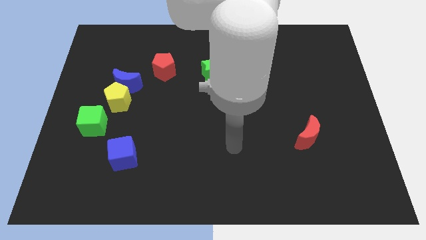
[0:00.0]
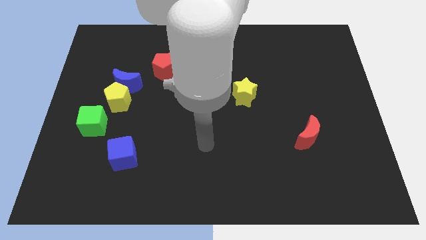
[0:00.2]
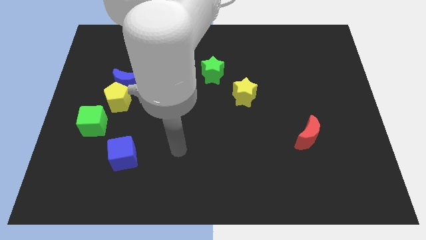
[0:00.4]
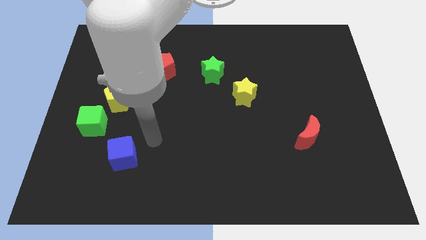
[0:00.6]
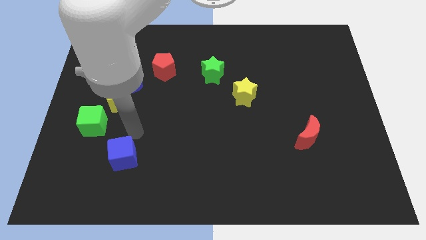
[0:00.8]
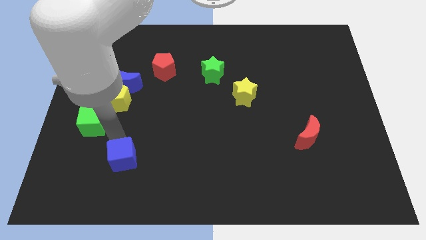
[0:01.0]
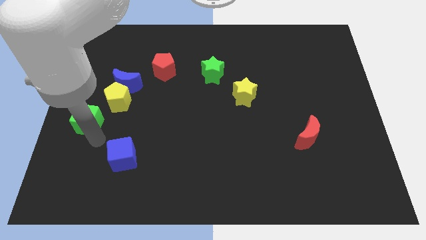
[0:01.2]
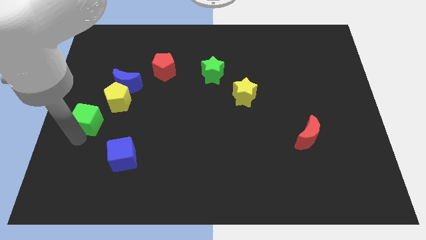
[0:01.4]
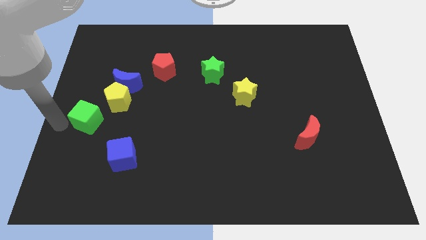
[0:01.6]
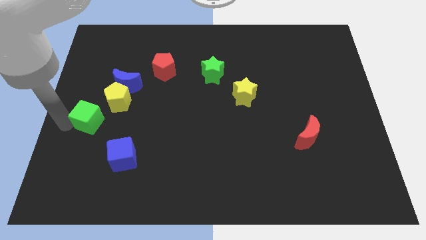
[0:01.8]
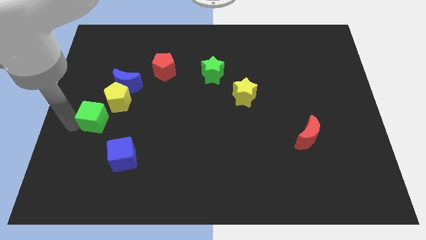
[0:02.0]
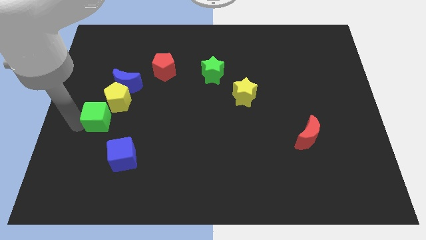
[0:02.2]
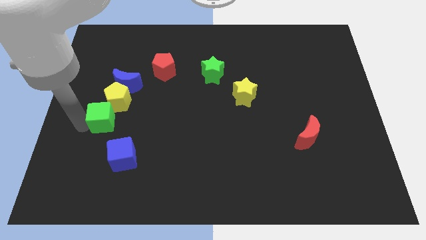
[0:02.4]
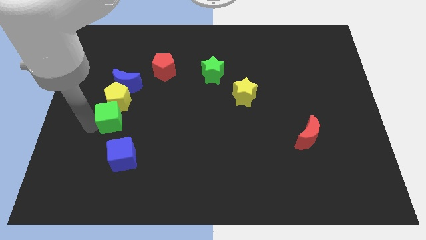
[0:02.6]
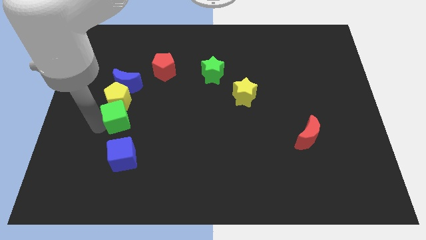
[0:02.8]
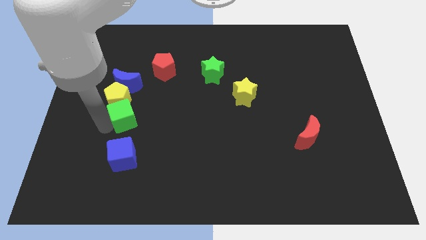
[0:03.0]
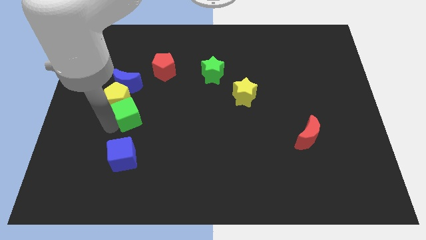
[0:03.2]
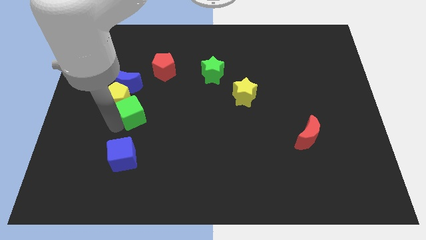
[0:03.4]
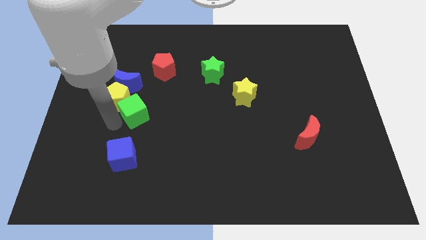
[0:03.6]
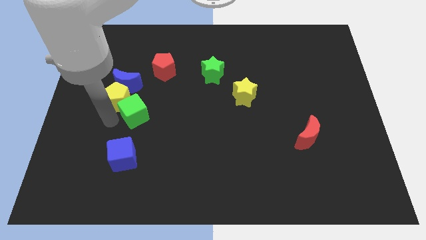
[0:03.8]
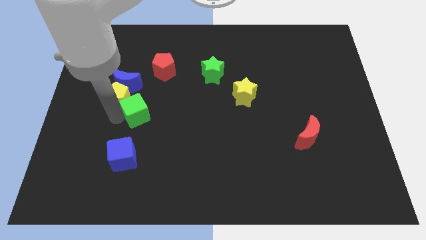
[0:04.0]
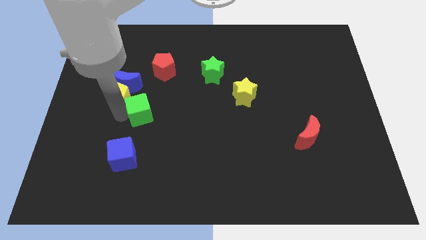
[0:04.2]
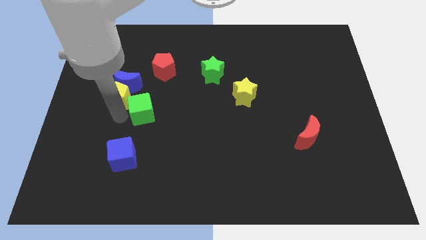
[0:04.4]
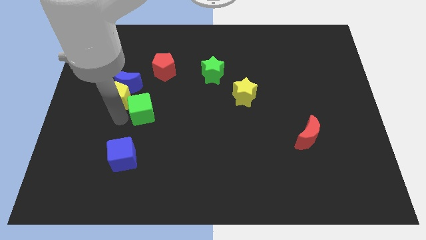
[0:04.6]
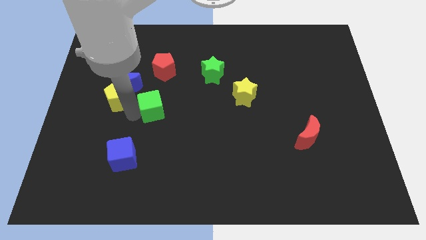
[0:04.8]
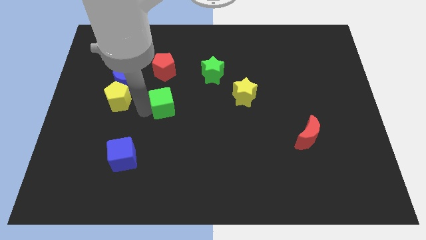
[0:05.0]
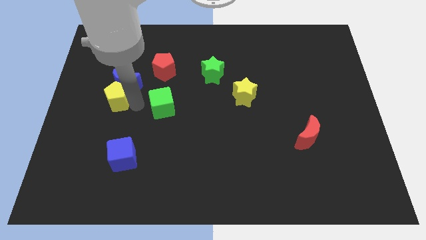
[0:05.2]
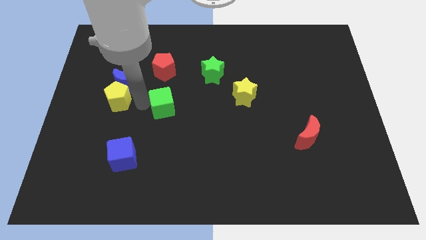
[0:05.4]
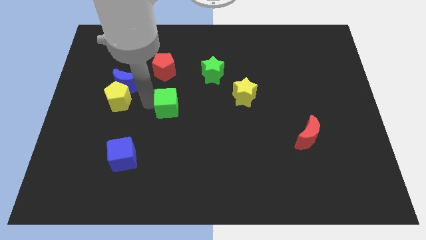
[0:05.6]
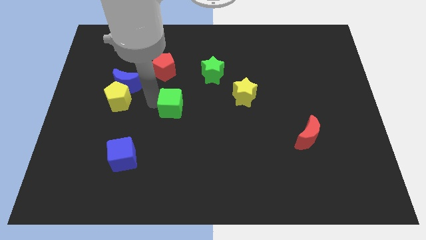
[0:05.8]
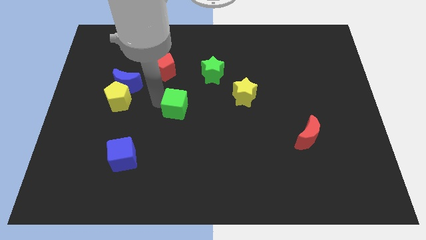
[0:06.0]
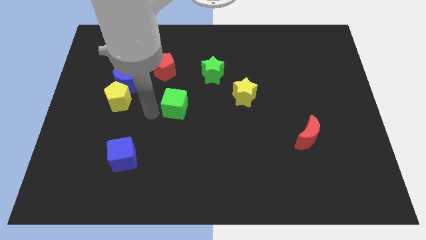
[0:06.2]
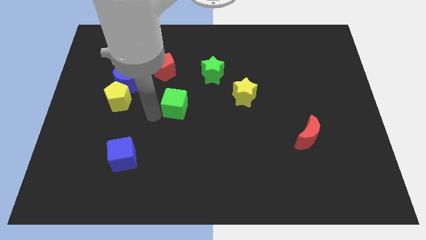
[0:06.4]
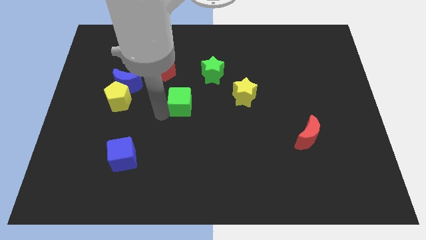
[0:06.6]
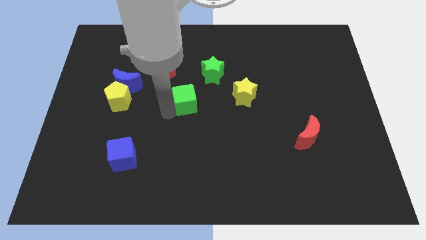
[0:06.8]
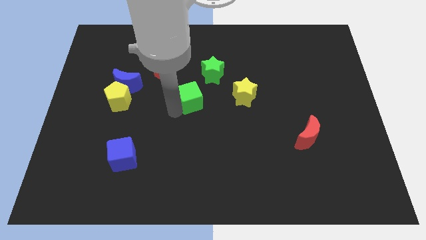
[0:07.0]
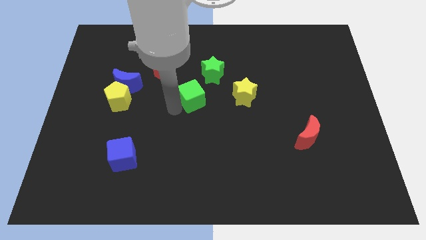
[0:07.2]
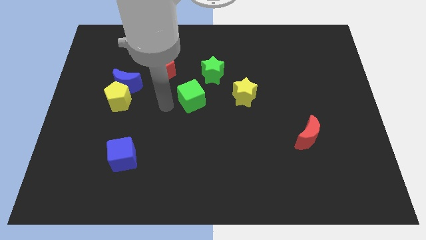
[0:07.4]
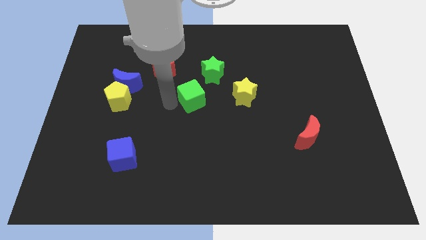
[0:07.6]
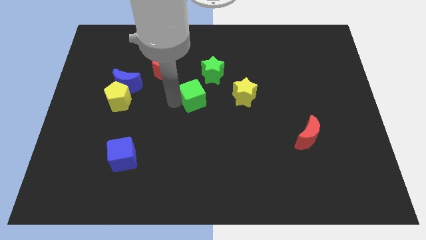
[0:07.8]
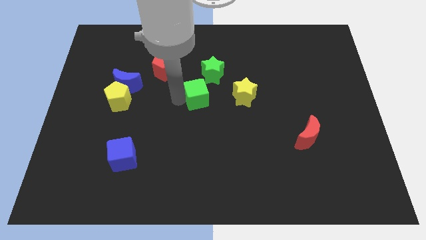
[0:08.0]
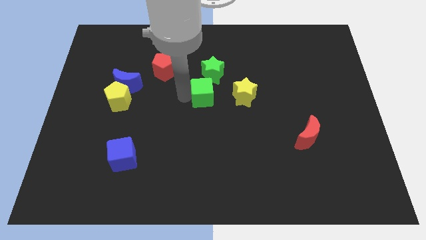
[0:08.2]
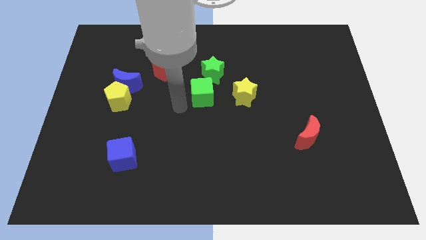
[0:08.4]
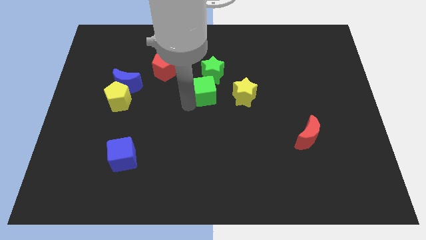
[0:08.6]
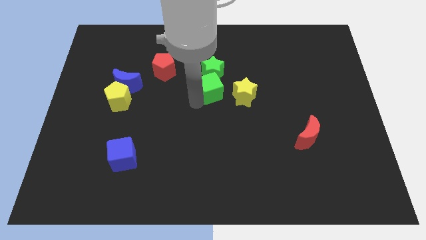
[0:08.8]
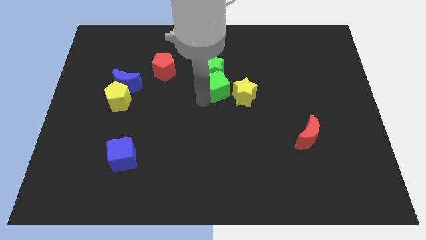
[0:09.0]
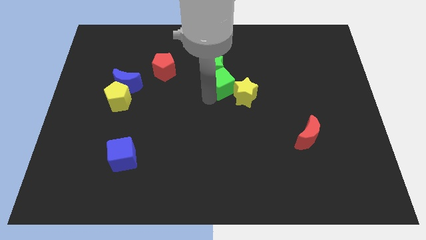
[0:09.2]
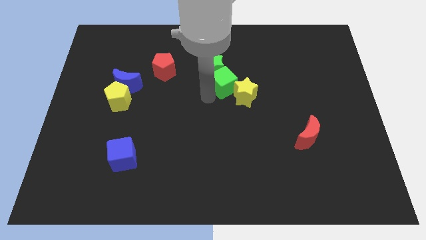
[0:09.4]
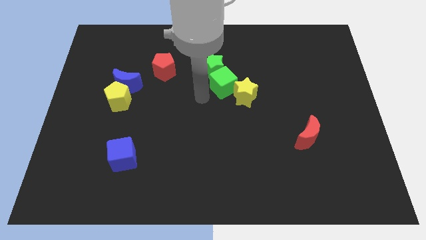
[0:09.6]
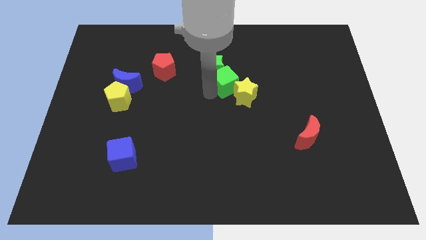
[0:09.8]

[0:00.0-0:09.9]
slide the green cube above the yellow star

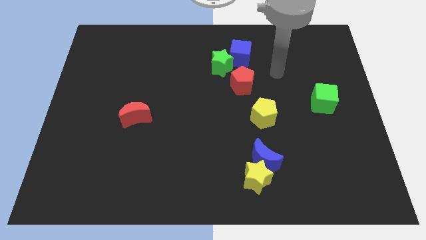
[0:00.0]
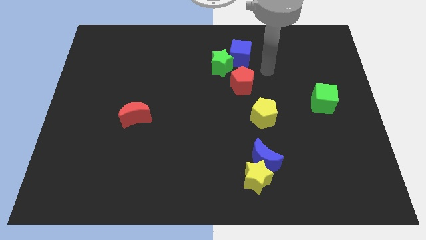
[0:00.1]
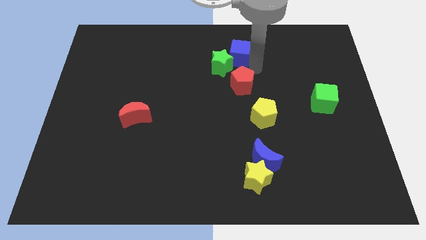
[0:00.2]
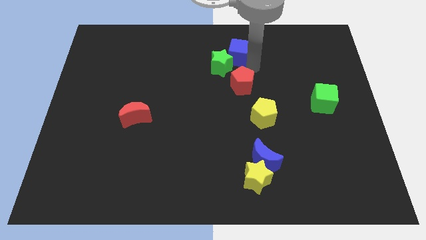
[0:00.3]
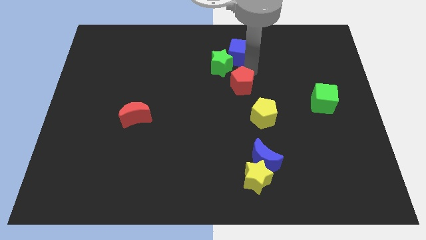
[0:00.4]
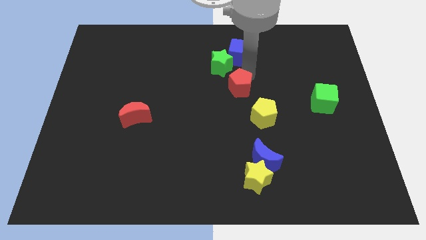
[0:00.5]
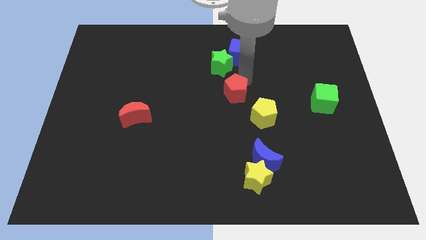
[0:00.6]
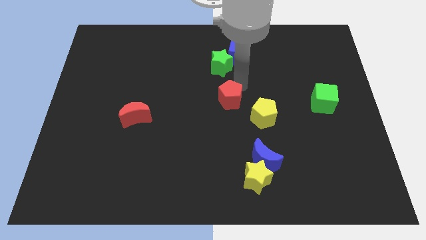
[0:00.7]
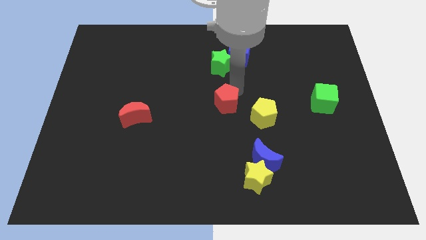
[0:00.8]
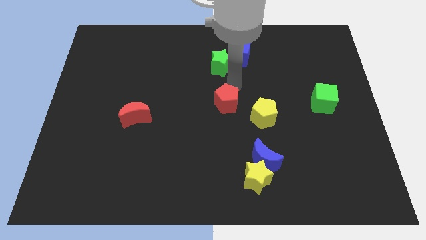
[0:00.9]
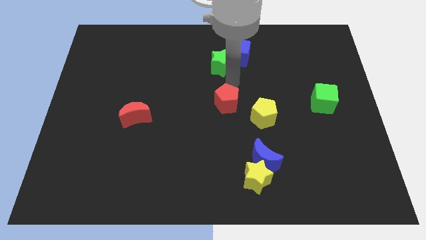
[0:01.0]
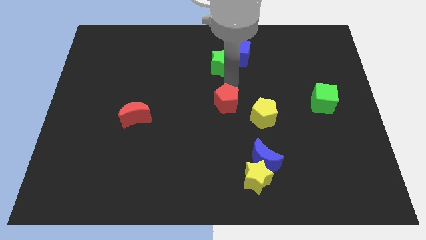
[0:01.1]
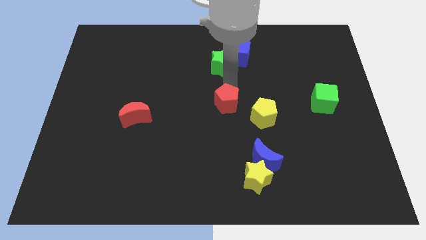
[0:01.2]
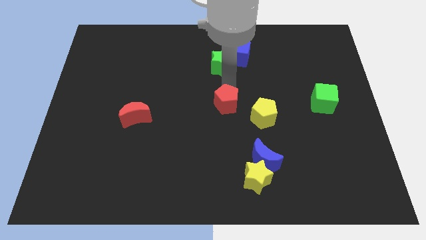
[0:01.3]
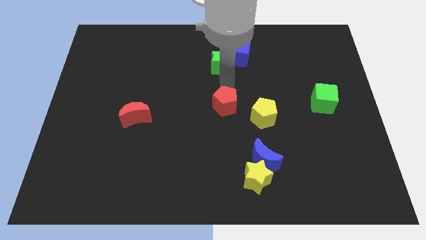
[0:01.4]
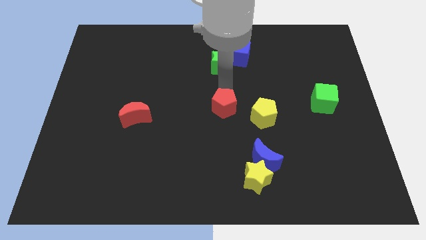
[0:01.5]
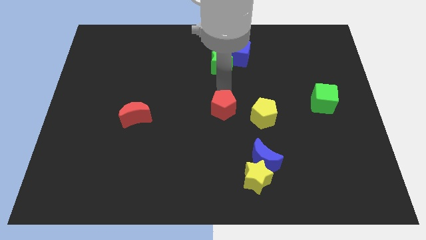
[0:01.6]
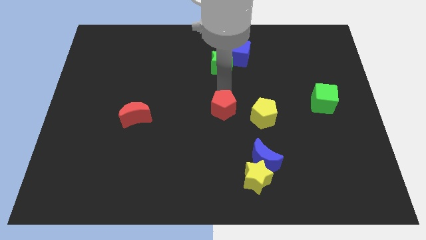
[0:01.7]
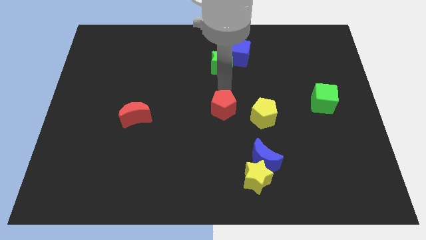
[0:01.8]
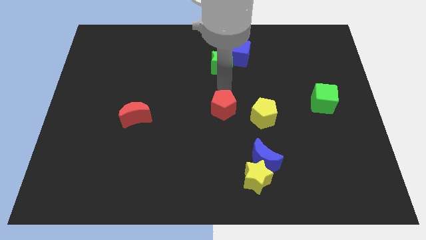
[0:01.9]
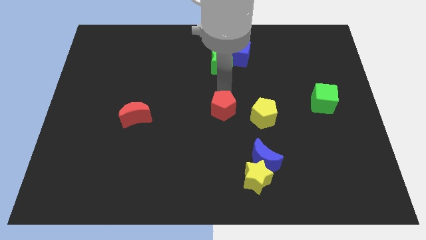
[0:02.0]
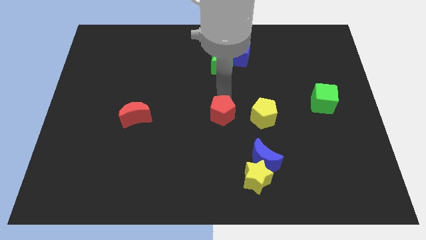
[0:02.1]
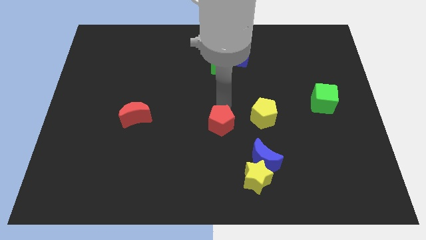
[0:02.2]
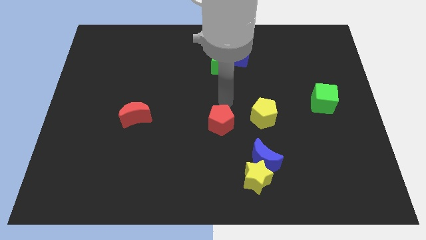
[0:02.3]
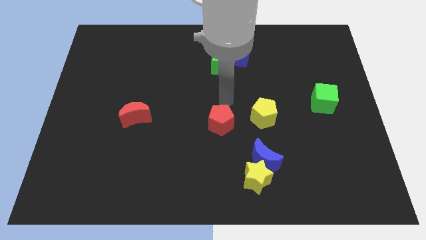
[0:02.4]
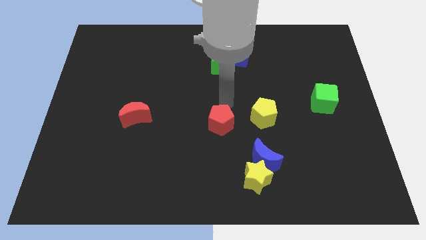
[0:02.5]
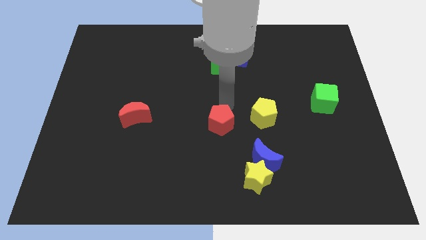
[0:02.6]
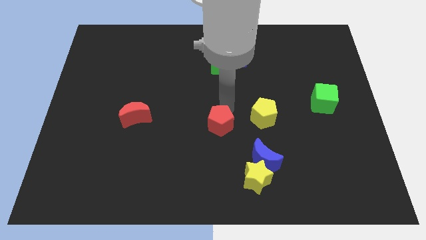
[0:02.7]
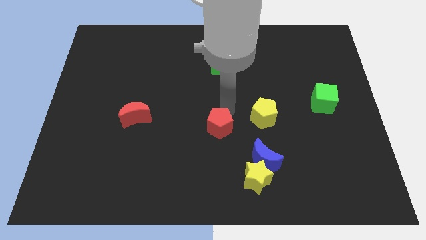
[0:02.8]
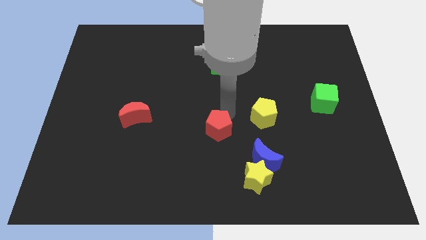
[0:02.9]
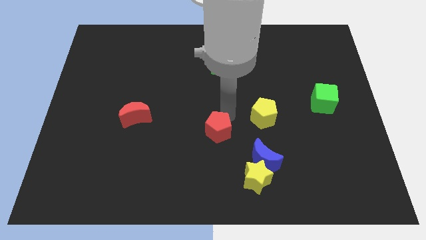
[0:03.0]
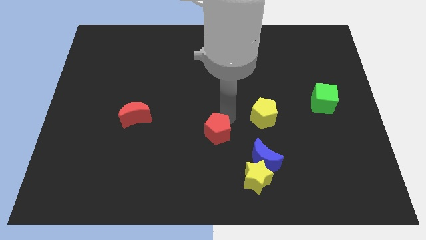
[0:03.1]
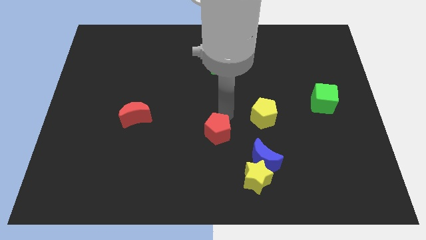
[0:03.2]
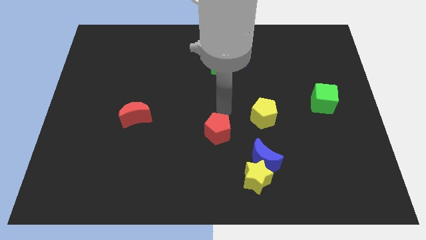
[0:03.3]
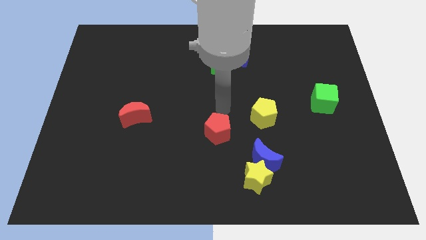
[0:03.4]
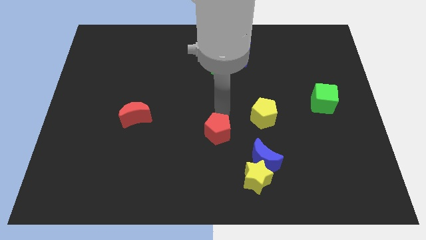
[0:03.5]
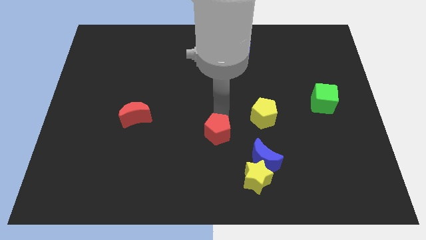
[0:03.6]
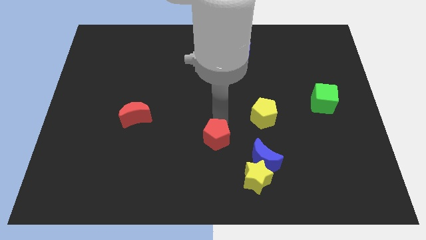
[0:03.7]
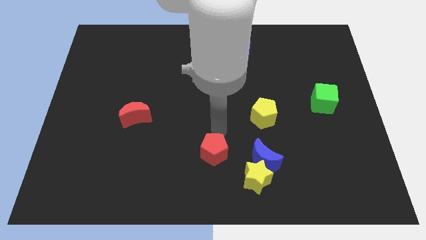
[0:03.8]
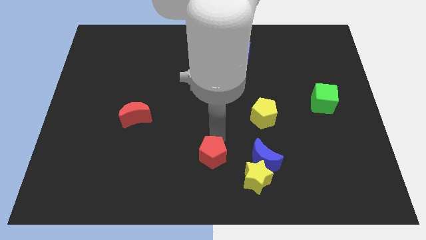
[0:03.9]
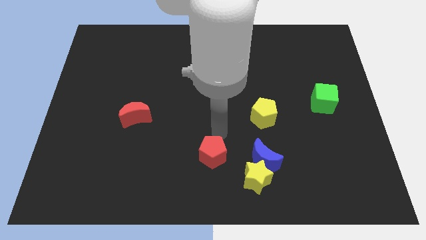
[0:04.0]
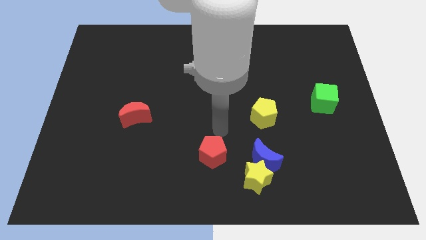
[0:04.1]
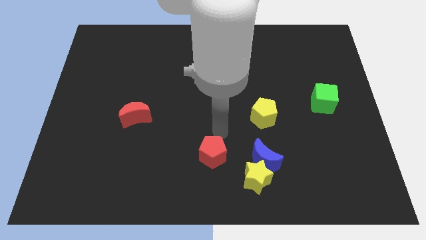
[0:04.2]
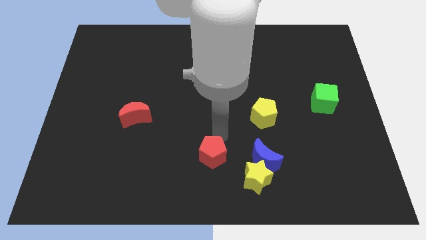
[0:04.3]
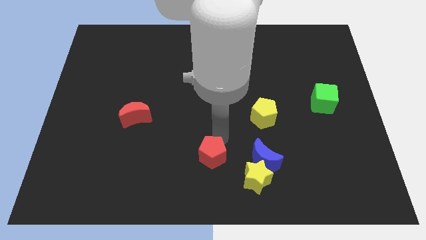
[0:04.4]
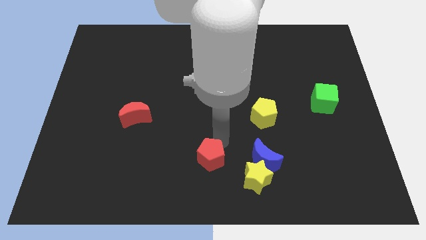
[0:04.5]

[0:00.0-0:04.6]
put the red pentagon to the left of the yellow star
